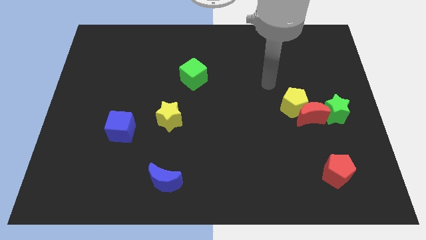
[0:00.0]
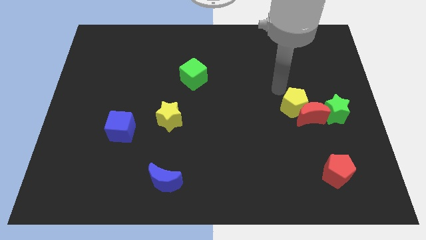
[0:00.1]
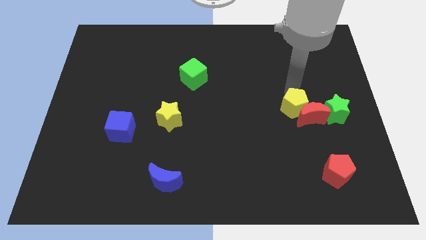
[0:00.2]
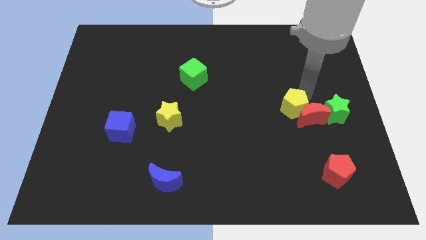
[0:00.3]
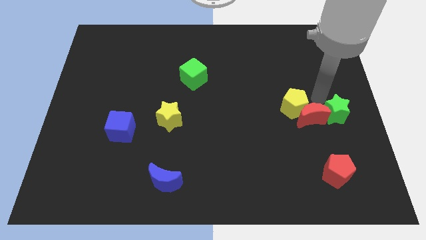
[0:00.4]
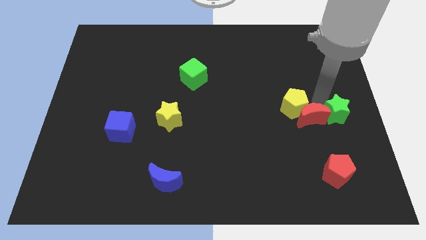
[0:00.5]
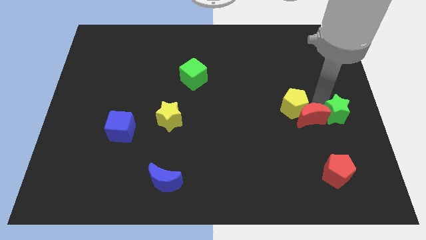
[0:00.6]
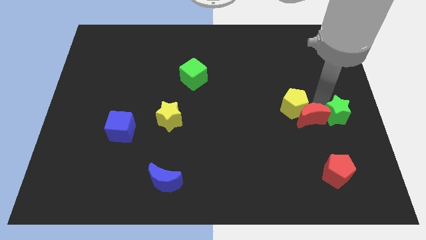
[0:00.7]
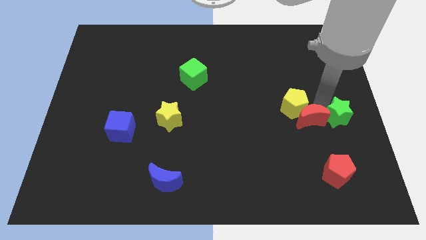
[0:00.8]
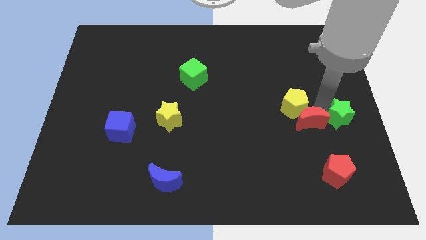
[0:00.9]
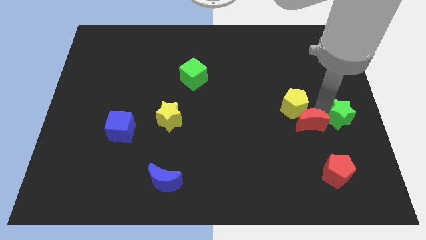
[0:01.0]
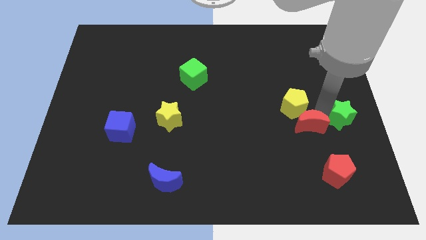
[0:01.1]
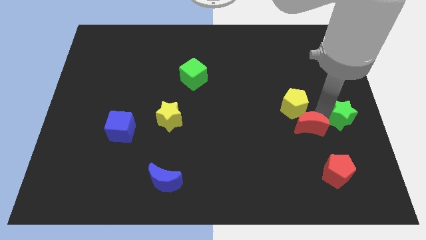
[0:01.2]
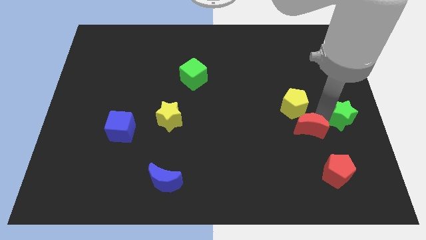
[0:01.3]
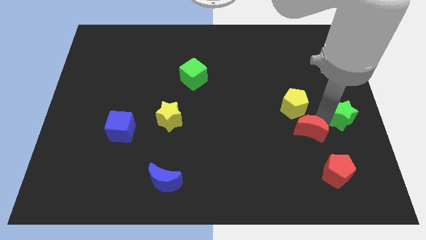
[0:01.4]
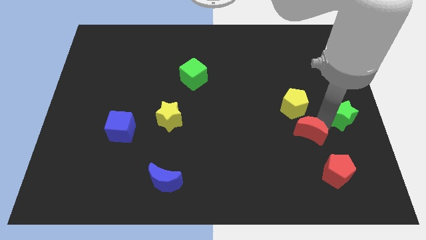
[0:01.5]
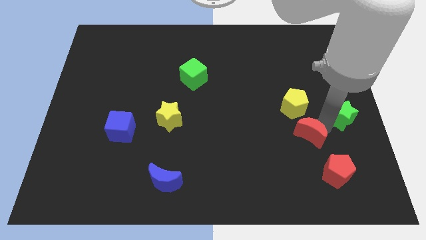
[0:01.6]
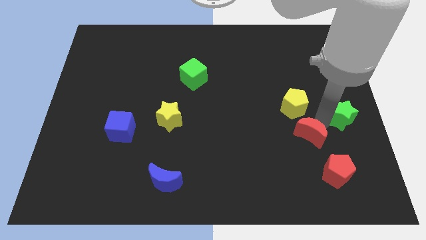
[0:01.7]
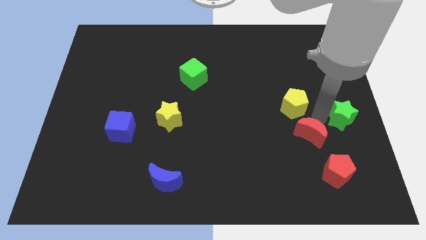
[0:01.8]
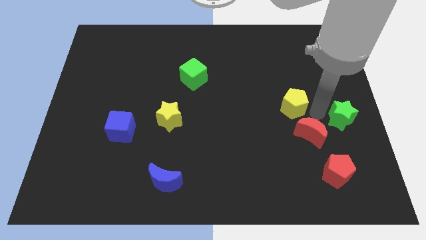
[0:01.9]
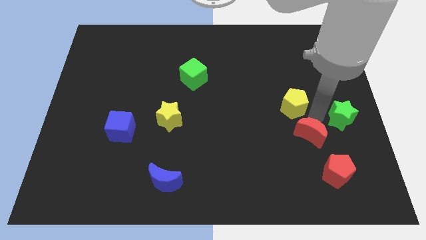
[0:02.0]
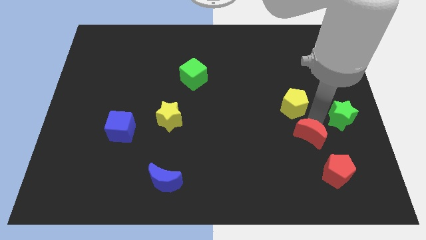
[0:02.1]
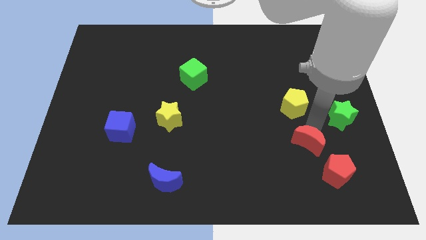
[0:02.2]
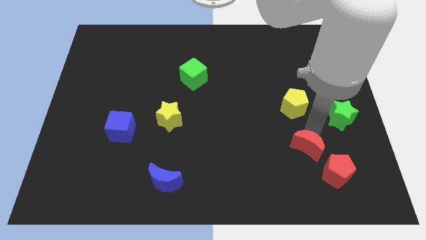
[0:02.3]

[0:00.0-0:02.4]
pull the red moon apart from the yellow pentagon and green star

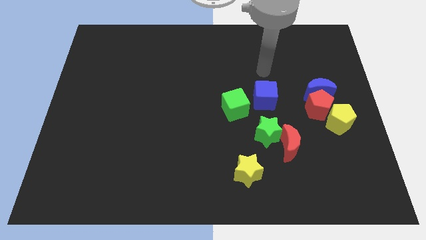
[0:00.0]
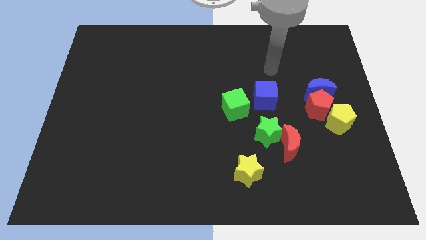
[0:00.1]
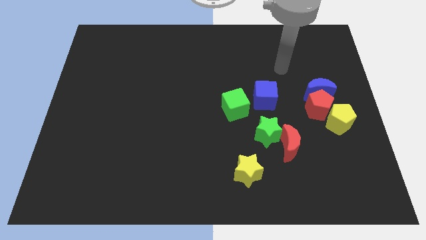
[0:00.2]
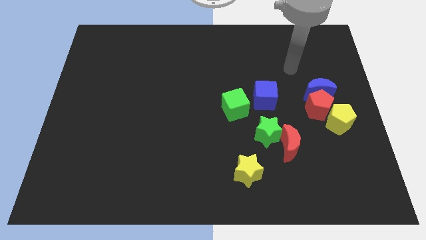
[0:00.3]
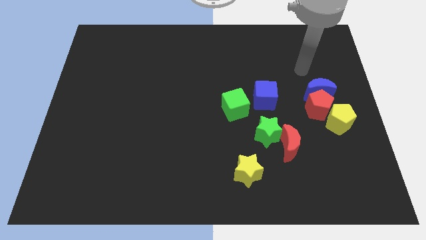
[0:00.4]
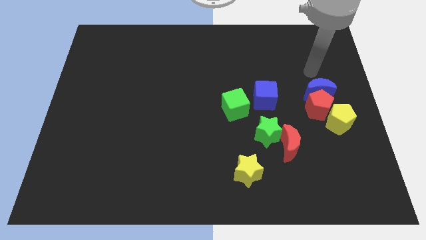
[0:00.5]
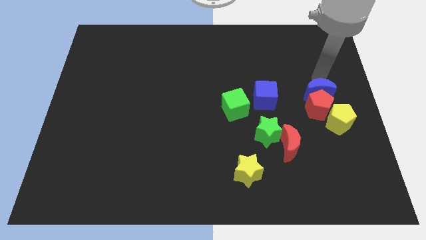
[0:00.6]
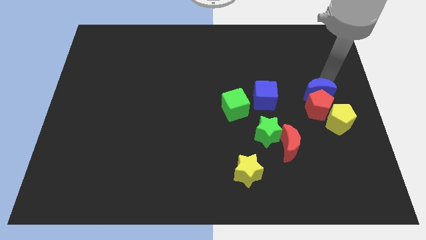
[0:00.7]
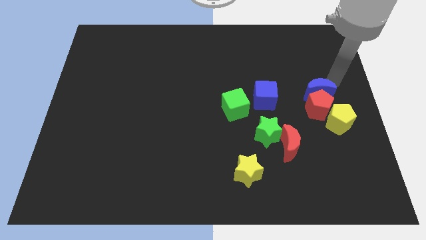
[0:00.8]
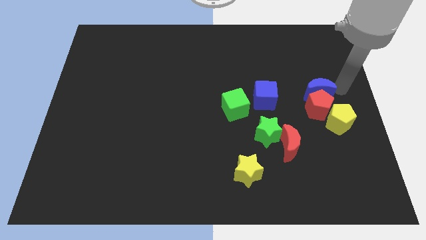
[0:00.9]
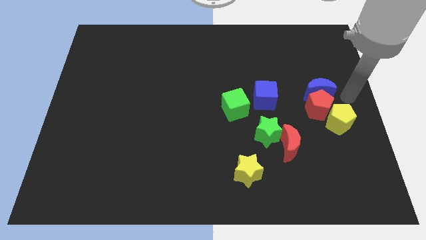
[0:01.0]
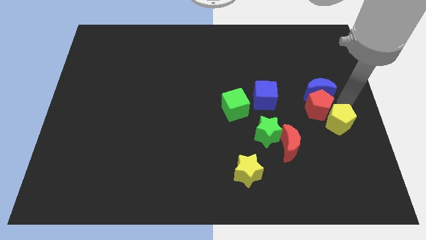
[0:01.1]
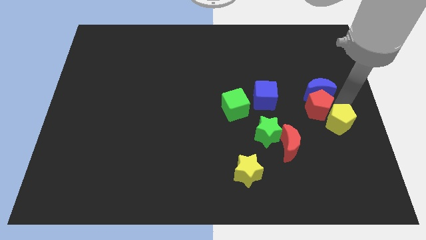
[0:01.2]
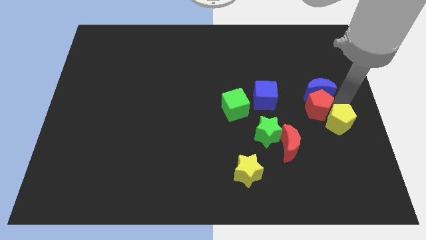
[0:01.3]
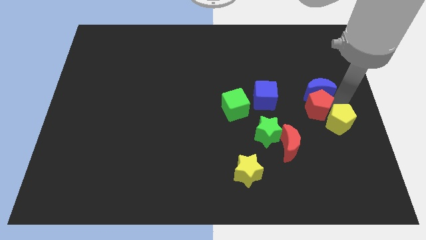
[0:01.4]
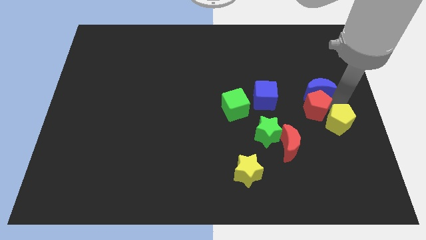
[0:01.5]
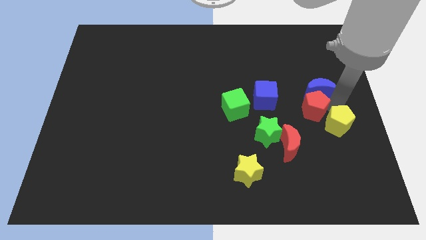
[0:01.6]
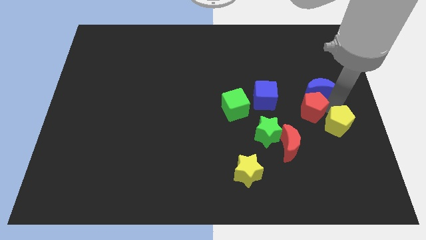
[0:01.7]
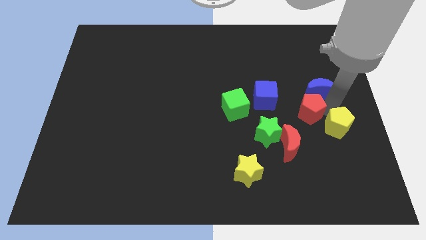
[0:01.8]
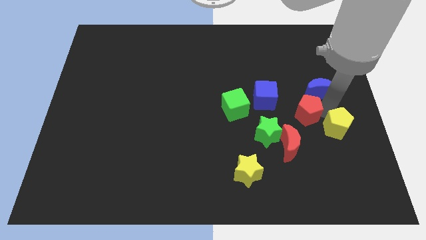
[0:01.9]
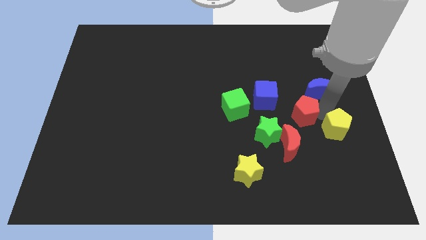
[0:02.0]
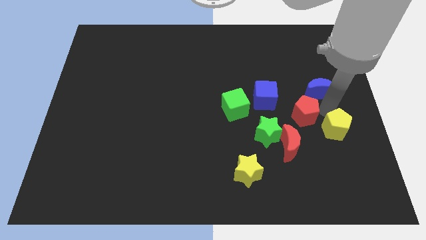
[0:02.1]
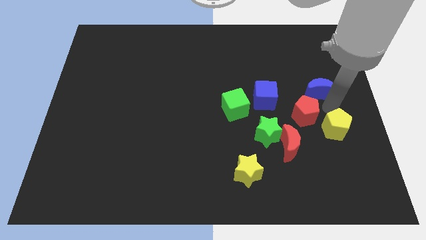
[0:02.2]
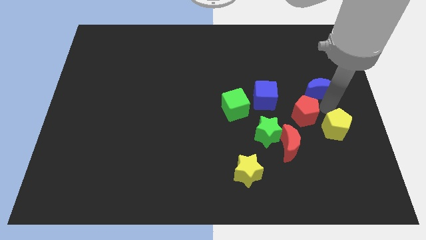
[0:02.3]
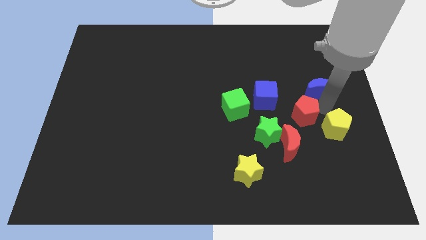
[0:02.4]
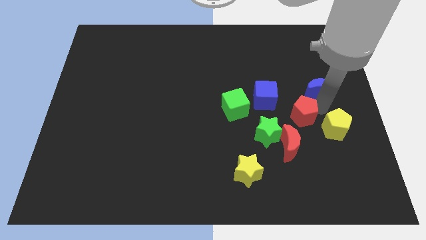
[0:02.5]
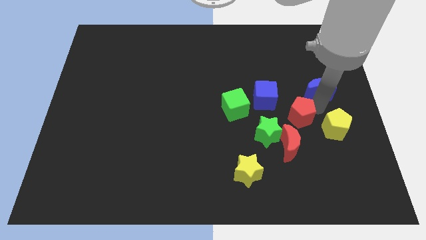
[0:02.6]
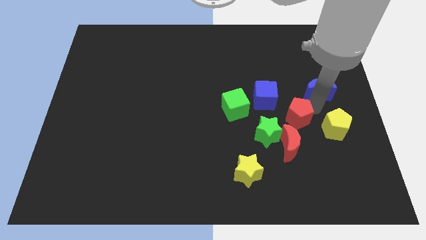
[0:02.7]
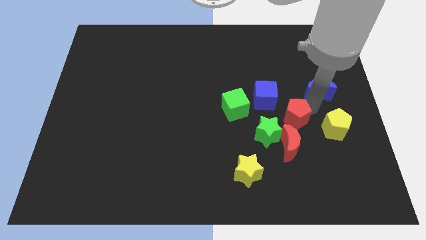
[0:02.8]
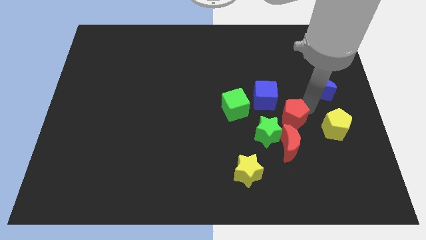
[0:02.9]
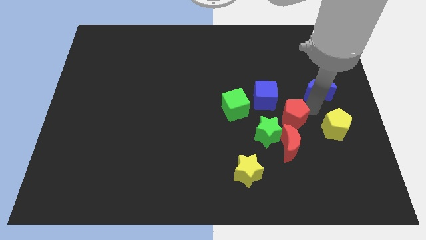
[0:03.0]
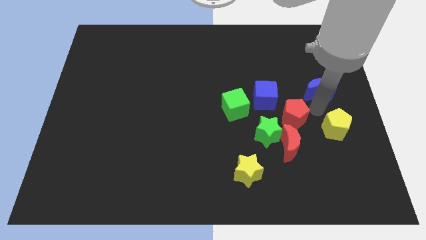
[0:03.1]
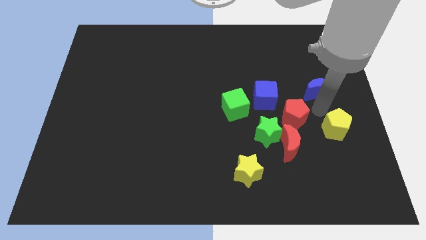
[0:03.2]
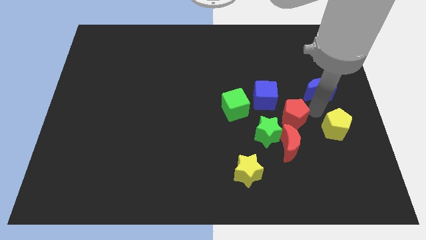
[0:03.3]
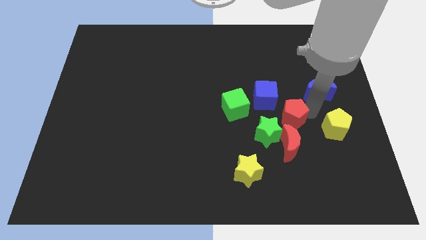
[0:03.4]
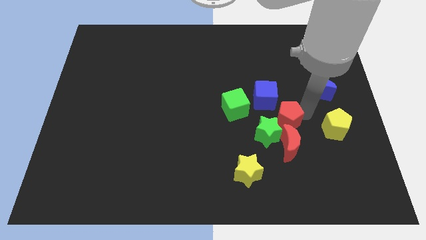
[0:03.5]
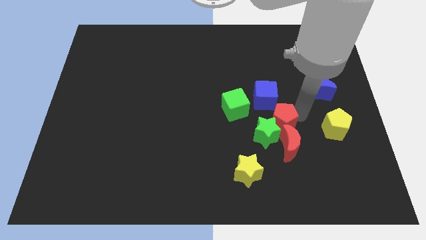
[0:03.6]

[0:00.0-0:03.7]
separate the red pentagon from the blue moon and yellow pentagon

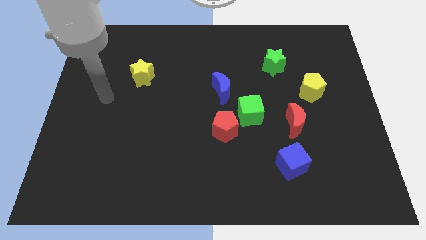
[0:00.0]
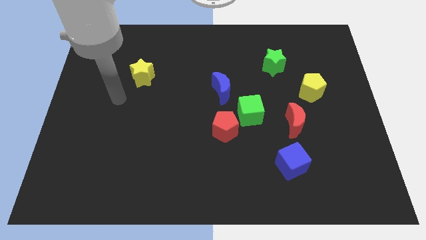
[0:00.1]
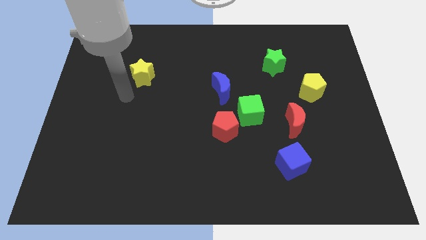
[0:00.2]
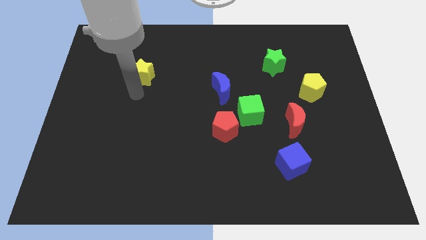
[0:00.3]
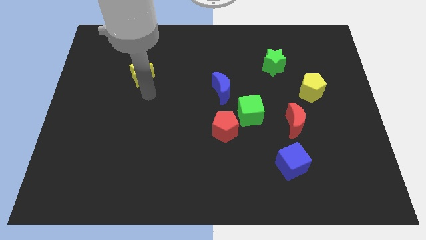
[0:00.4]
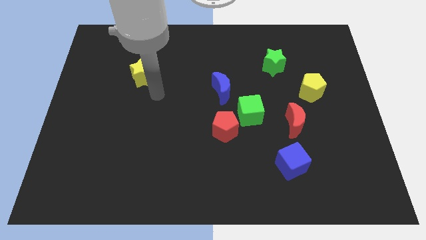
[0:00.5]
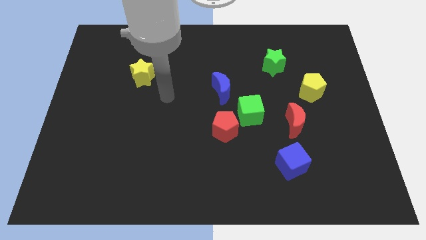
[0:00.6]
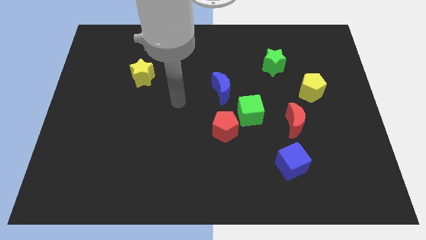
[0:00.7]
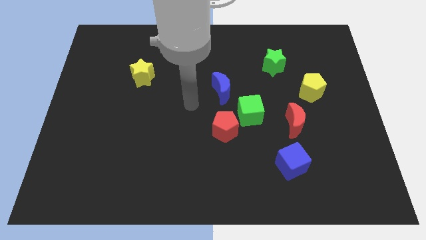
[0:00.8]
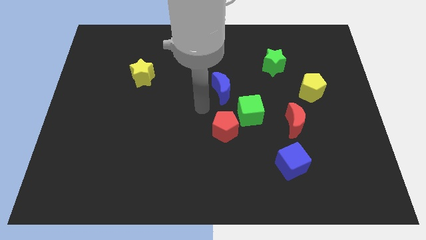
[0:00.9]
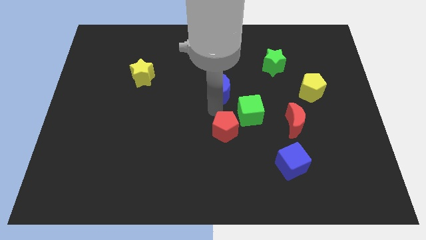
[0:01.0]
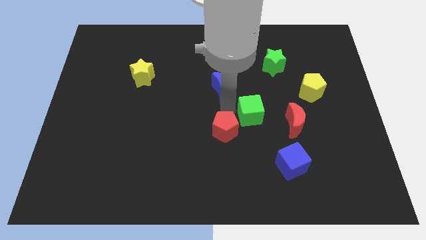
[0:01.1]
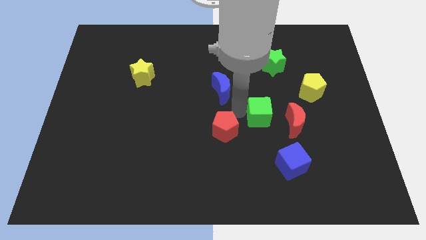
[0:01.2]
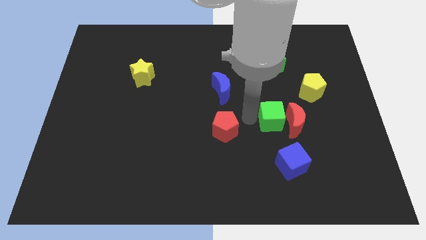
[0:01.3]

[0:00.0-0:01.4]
pull the red pentagon apart from the green cube

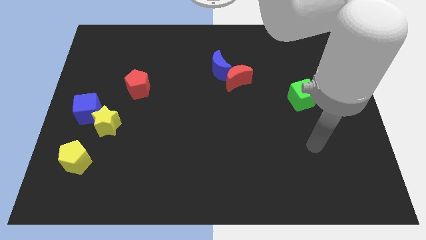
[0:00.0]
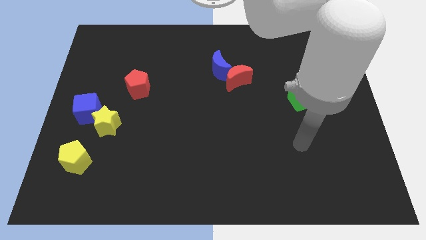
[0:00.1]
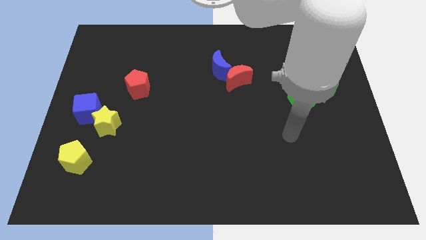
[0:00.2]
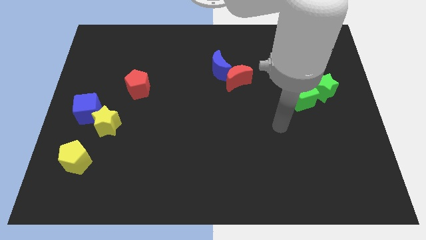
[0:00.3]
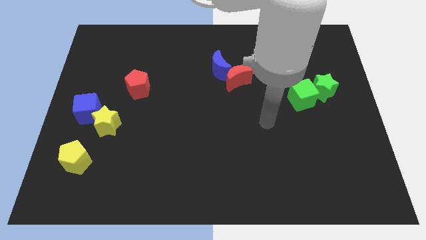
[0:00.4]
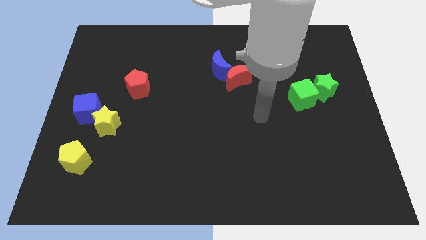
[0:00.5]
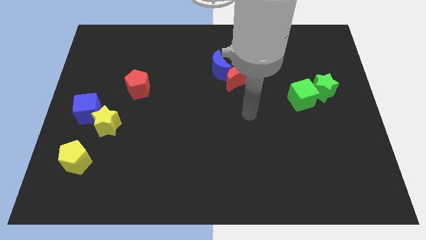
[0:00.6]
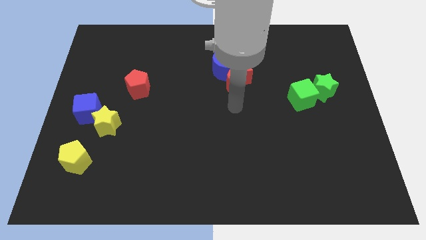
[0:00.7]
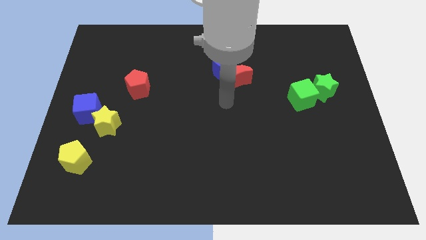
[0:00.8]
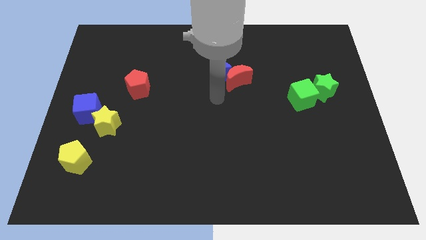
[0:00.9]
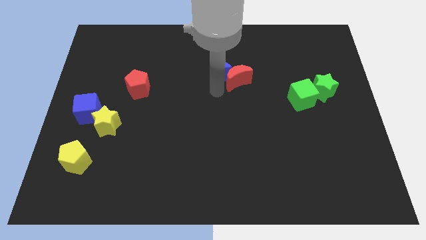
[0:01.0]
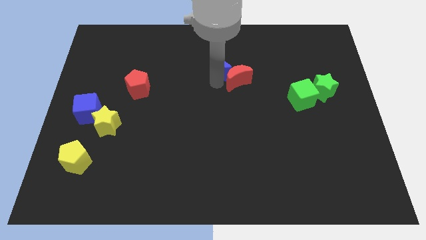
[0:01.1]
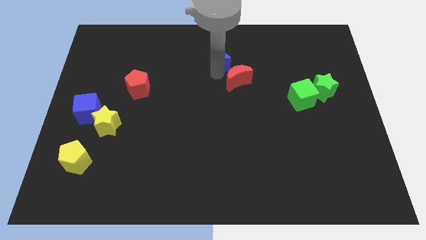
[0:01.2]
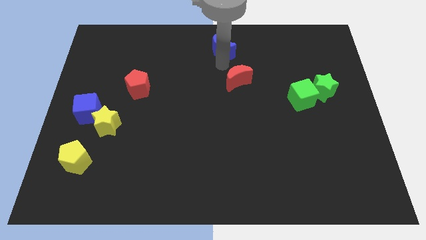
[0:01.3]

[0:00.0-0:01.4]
pull the red moon apart from the blue moon

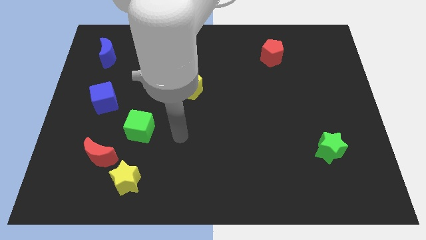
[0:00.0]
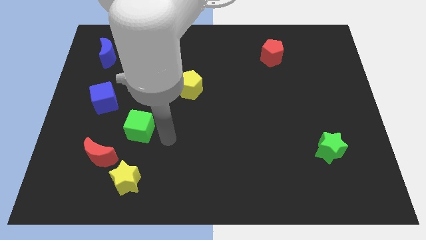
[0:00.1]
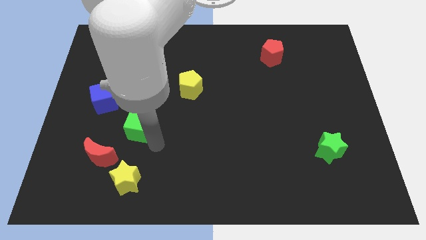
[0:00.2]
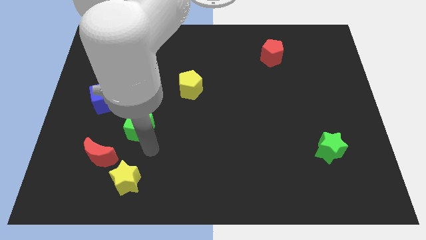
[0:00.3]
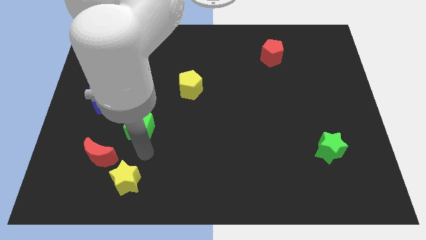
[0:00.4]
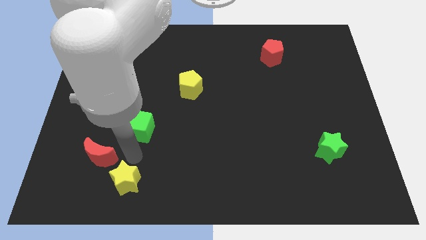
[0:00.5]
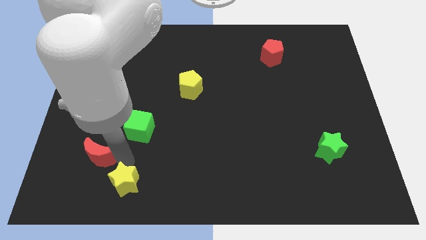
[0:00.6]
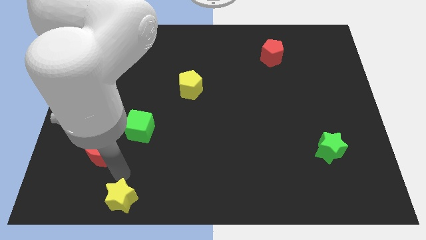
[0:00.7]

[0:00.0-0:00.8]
move the red moon away from the yellow star
